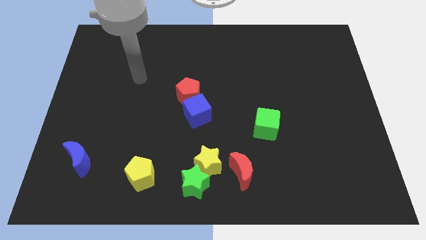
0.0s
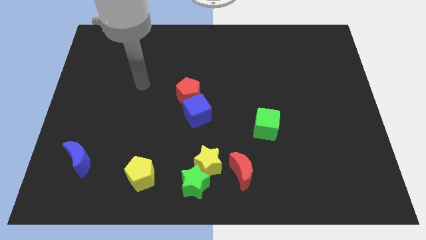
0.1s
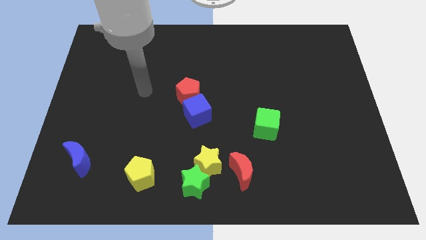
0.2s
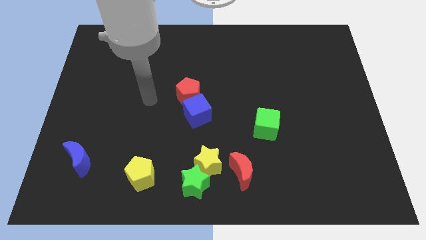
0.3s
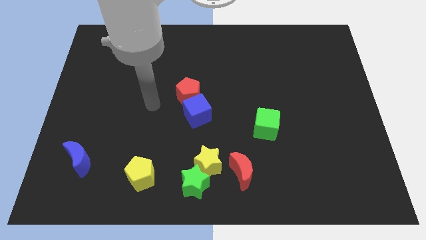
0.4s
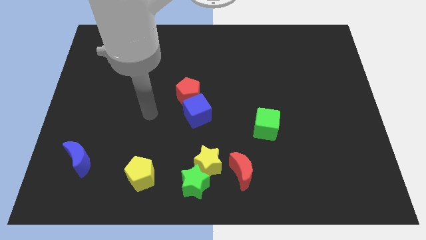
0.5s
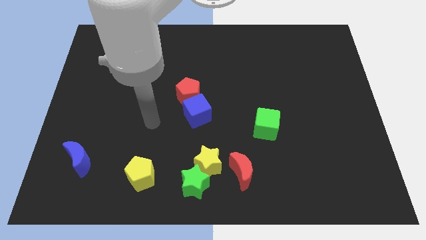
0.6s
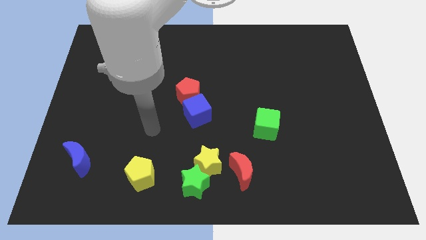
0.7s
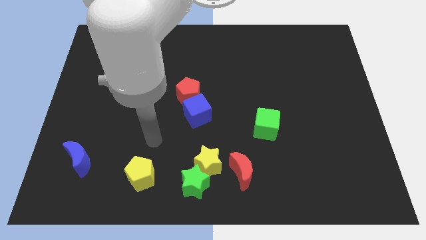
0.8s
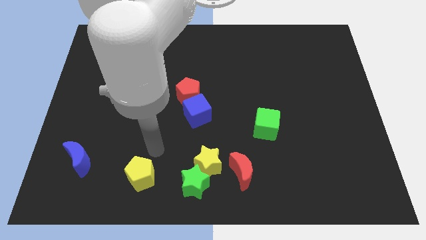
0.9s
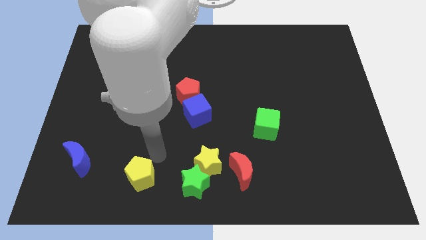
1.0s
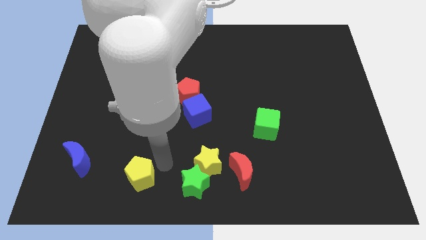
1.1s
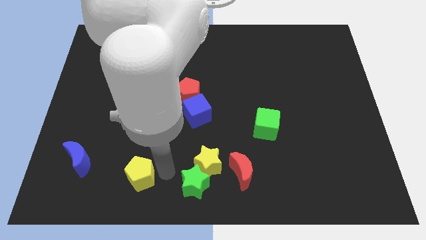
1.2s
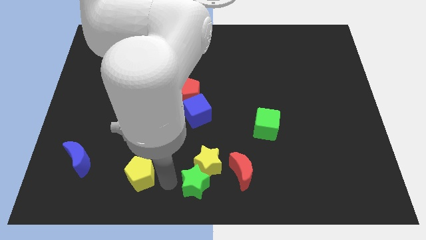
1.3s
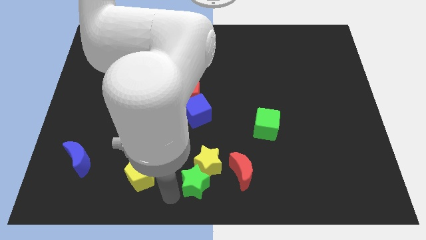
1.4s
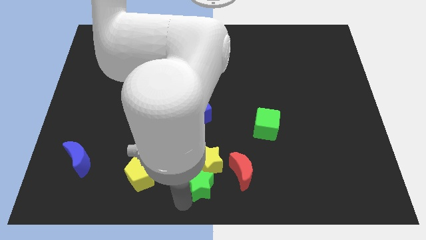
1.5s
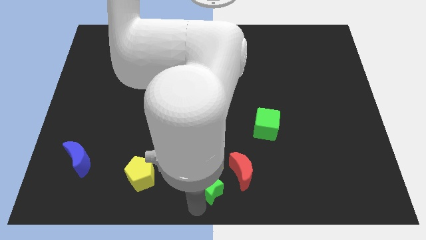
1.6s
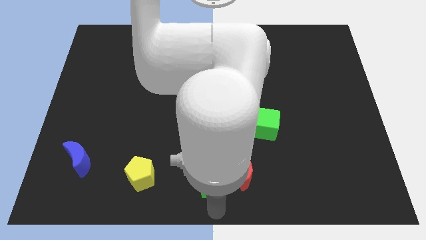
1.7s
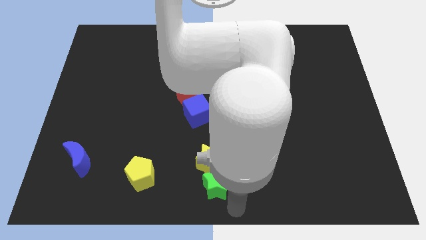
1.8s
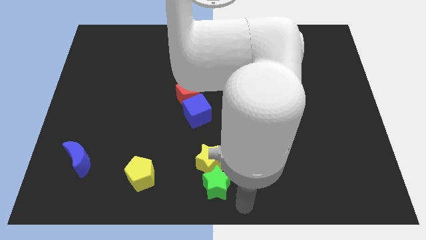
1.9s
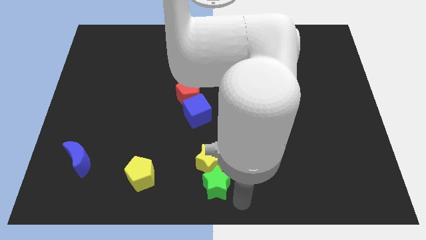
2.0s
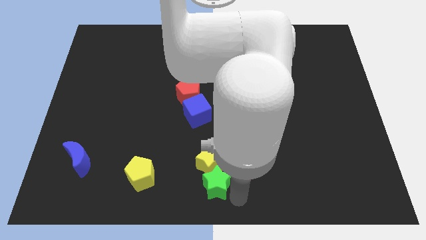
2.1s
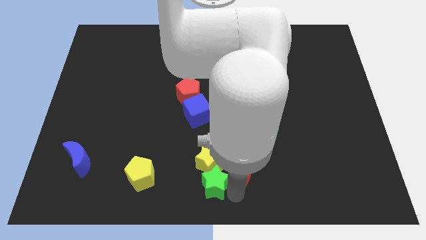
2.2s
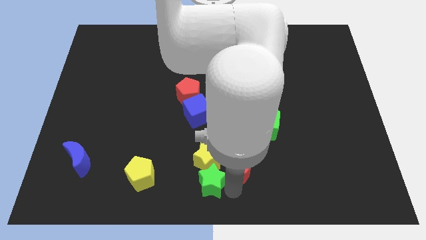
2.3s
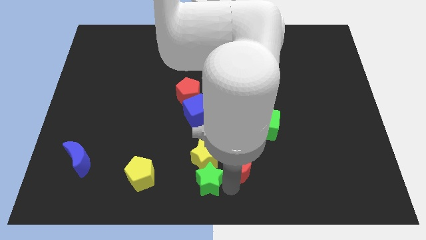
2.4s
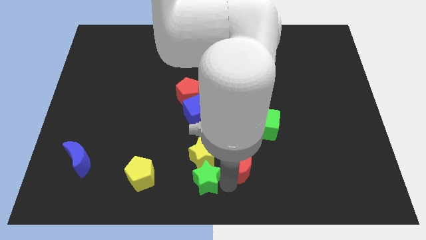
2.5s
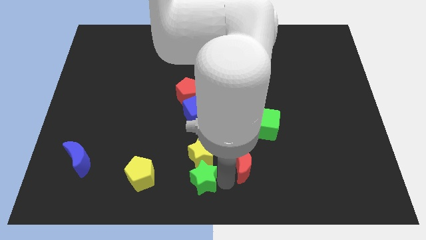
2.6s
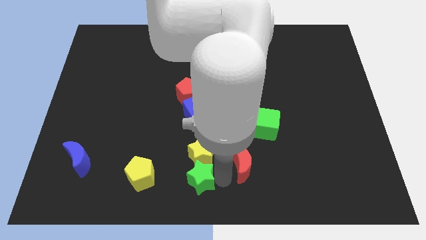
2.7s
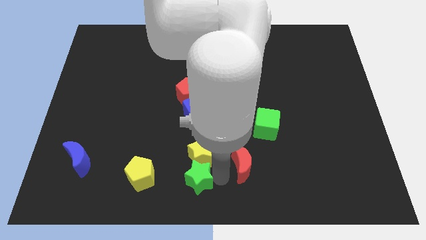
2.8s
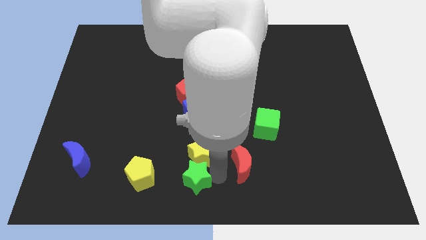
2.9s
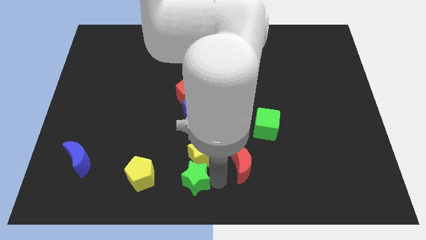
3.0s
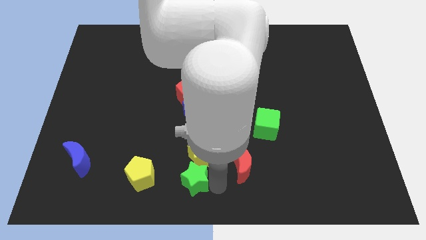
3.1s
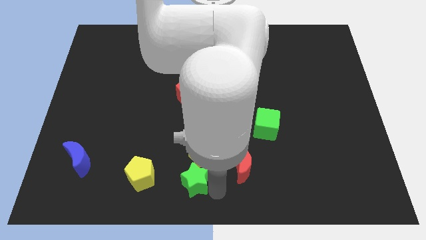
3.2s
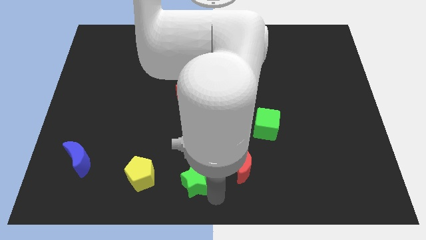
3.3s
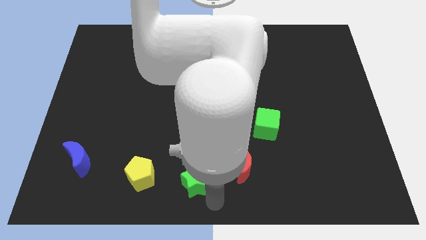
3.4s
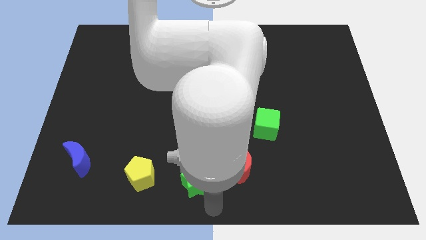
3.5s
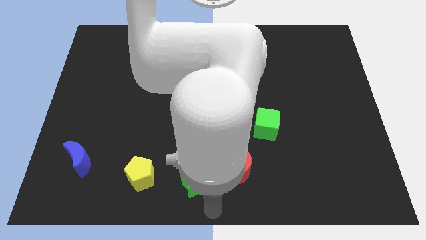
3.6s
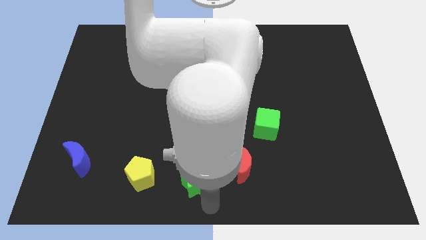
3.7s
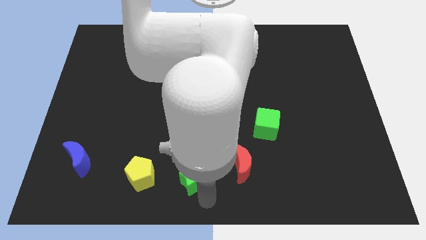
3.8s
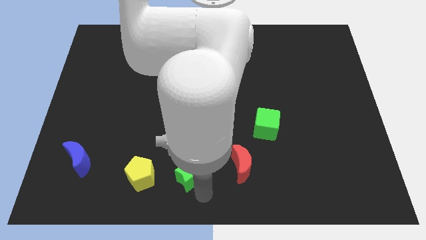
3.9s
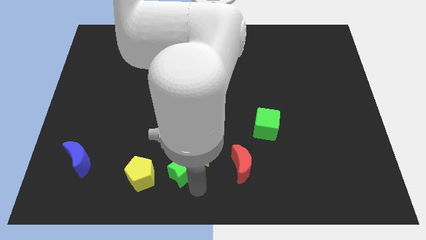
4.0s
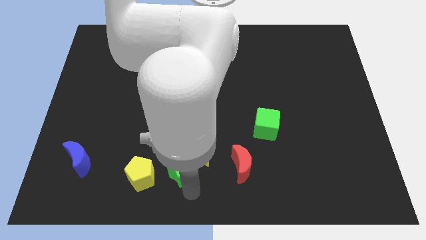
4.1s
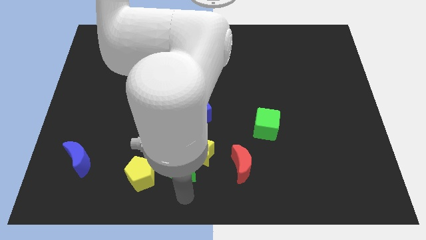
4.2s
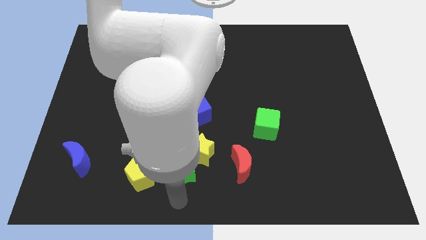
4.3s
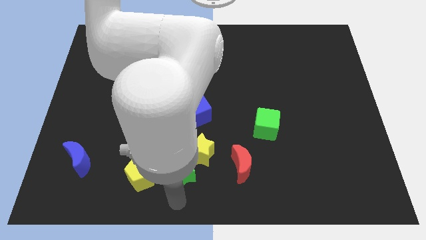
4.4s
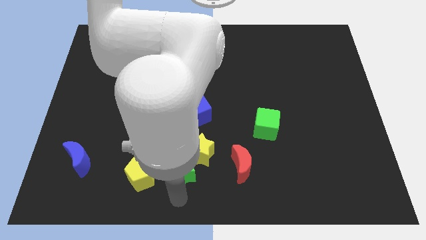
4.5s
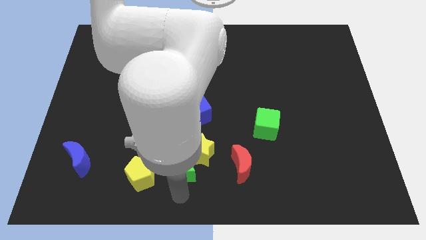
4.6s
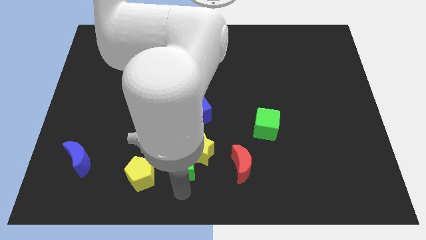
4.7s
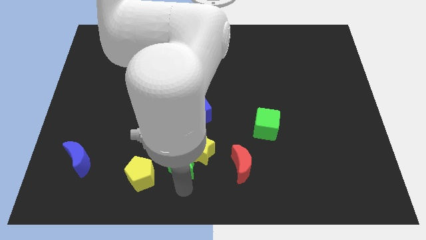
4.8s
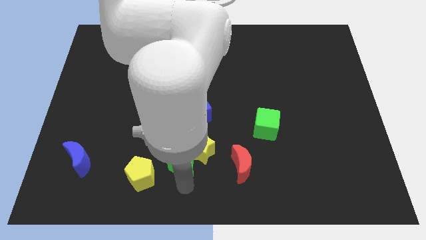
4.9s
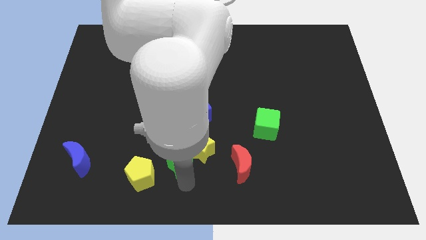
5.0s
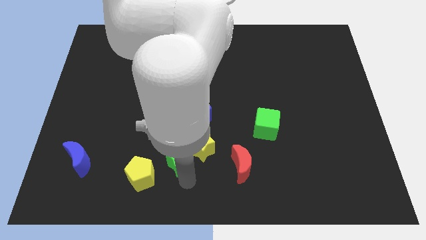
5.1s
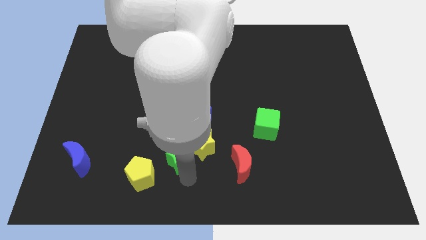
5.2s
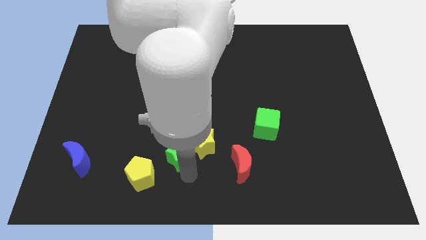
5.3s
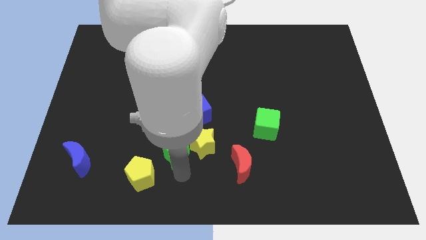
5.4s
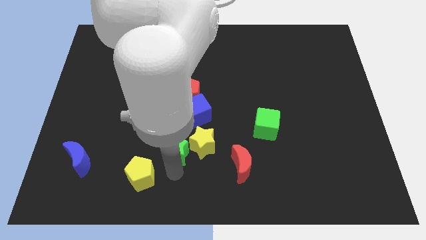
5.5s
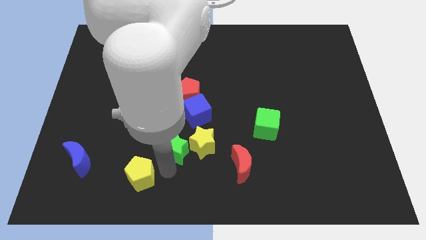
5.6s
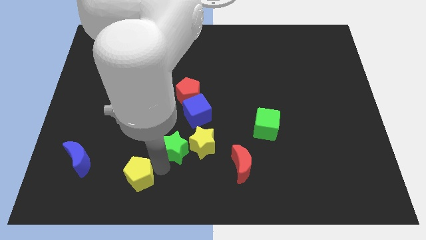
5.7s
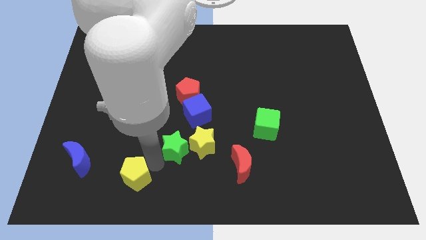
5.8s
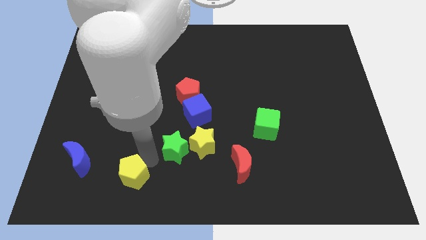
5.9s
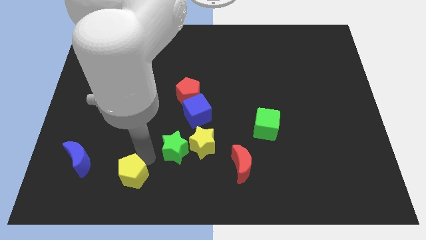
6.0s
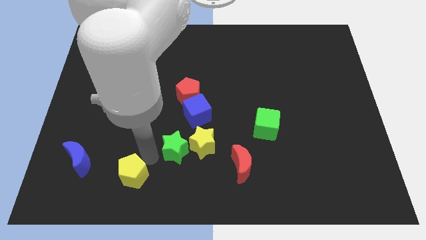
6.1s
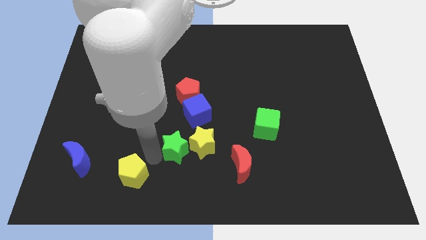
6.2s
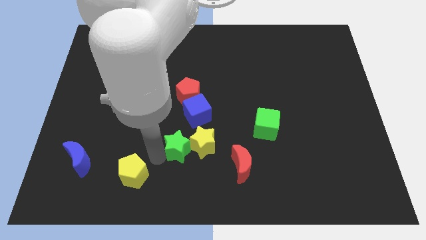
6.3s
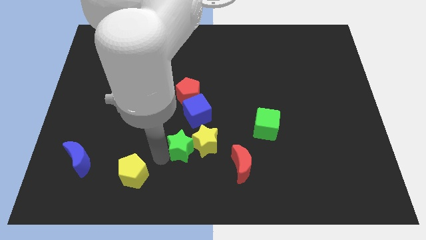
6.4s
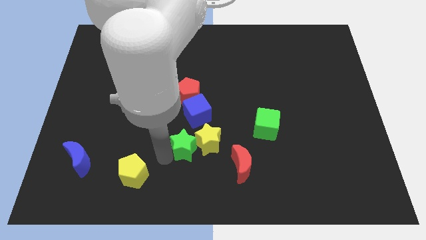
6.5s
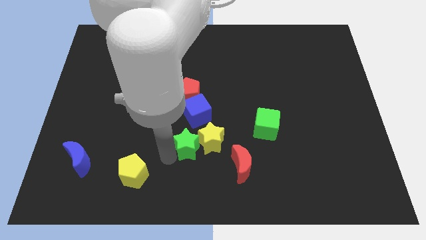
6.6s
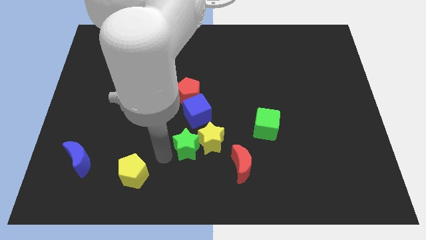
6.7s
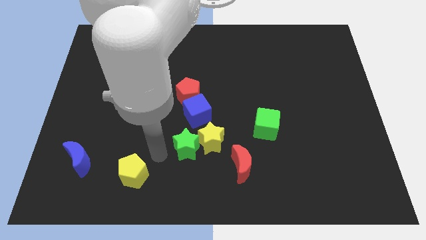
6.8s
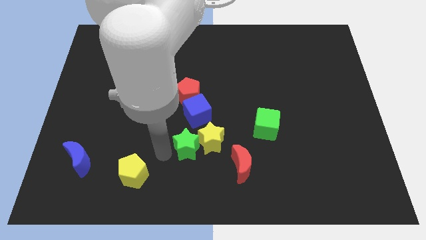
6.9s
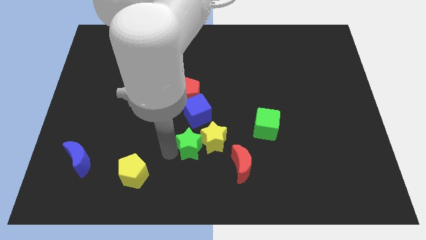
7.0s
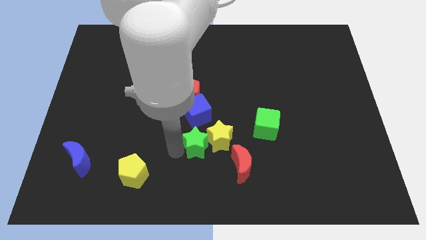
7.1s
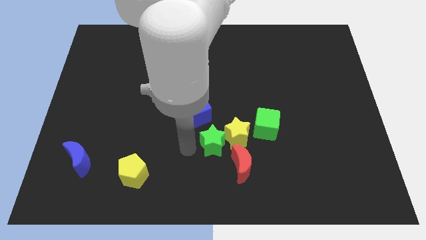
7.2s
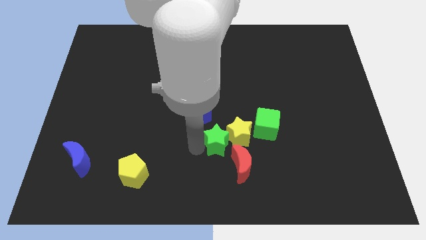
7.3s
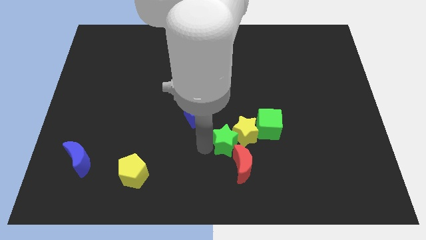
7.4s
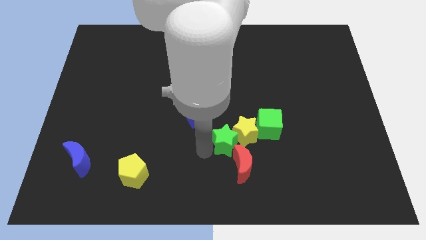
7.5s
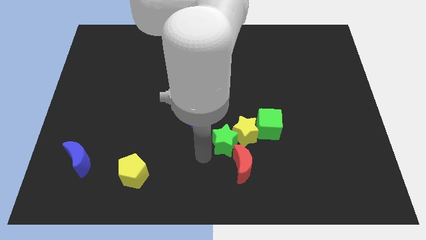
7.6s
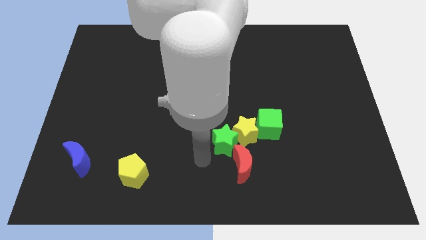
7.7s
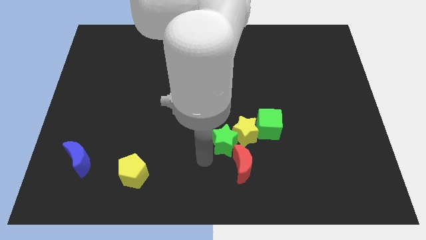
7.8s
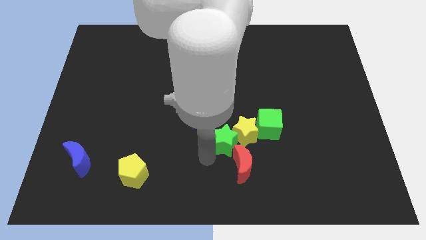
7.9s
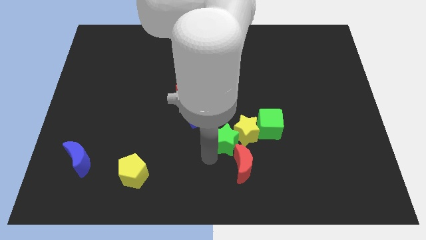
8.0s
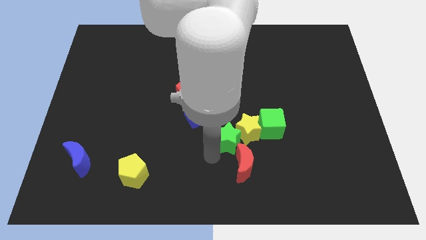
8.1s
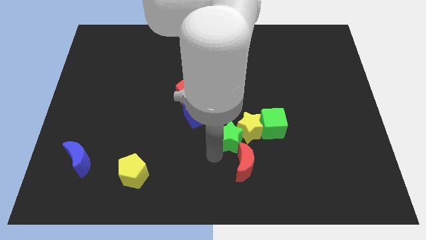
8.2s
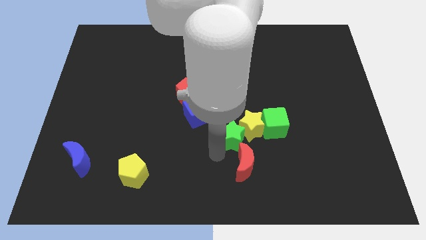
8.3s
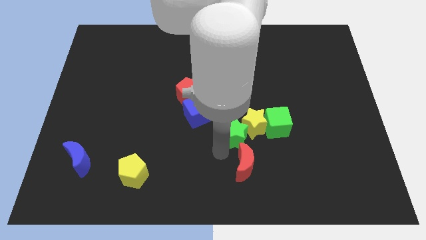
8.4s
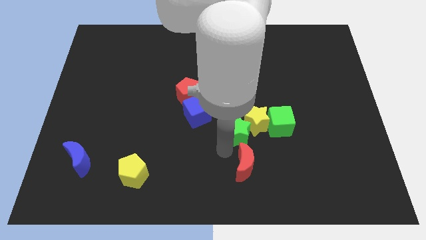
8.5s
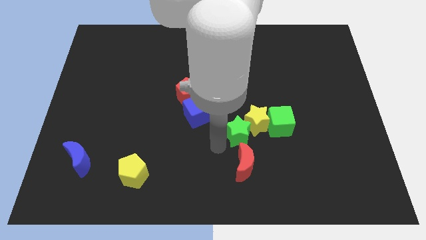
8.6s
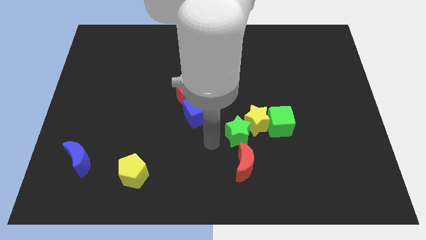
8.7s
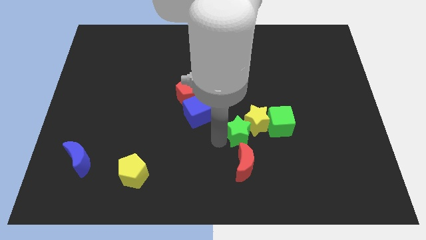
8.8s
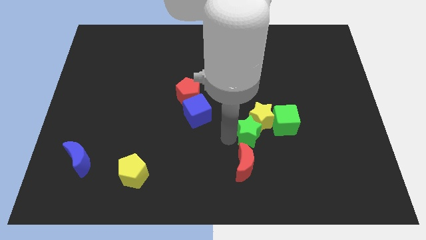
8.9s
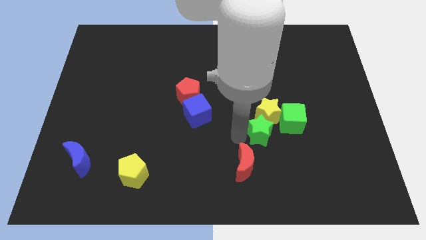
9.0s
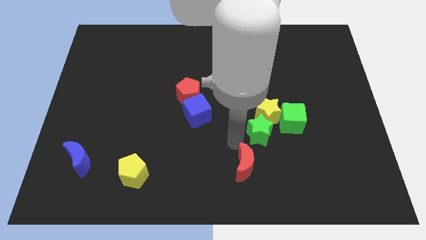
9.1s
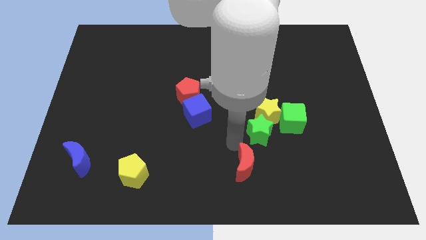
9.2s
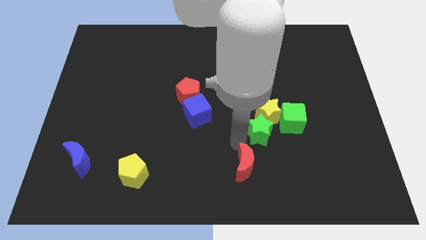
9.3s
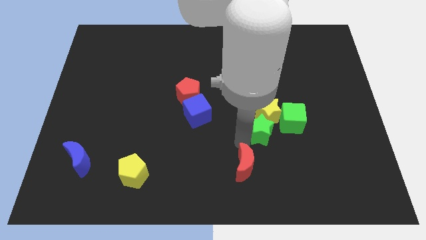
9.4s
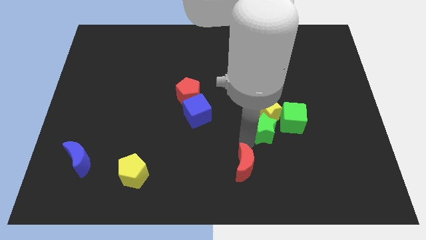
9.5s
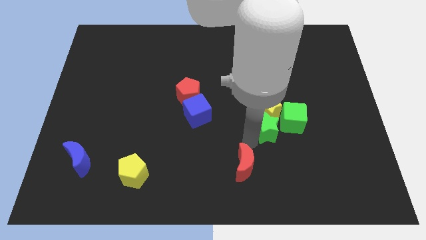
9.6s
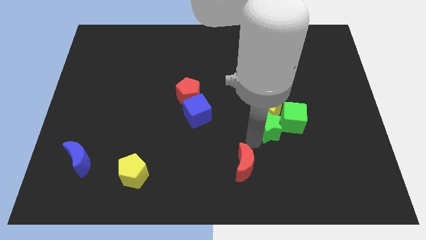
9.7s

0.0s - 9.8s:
move the green star next to the green cube
